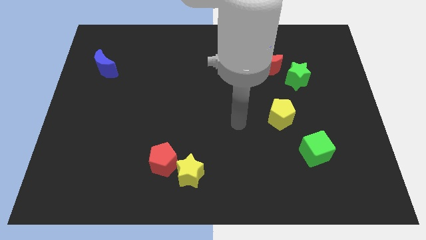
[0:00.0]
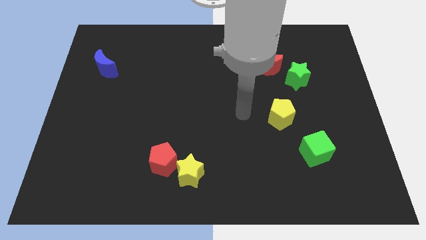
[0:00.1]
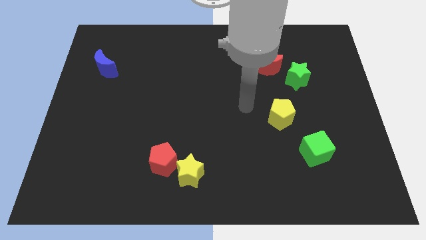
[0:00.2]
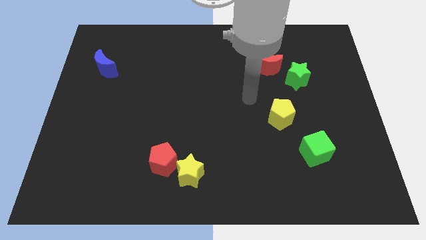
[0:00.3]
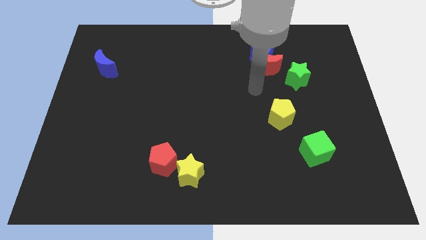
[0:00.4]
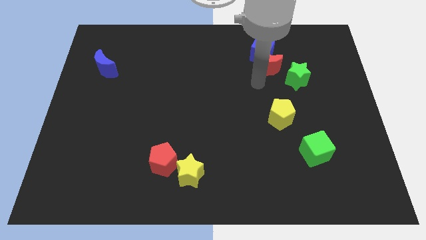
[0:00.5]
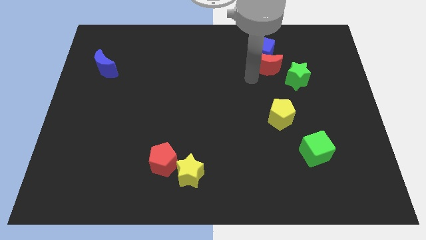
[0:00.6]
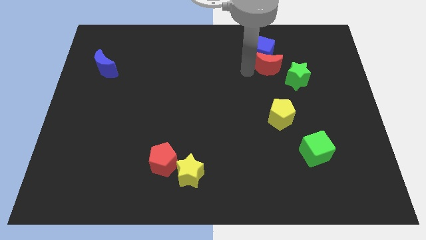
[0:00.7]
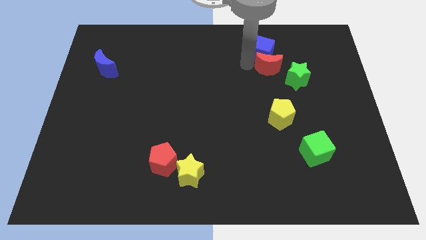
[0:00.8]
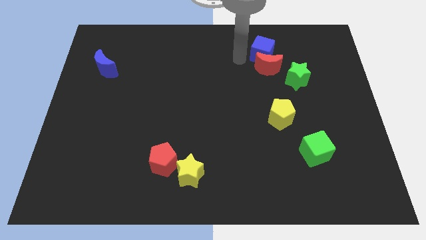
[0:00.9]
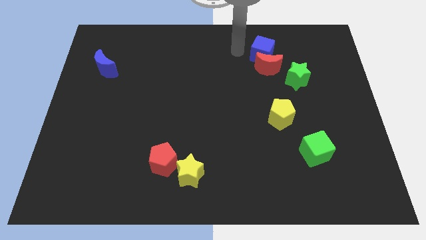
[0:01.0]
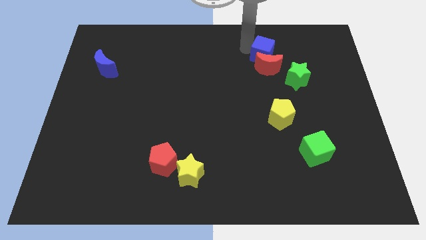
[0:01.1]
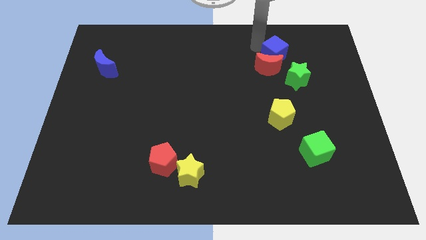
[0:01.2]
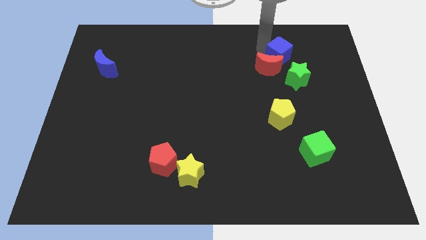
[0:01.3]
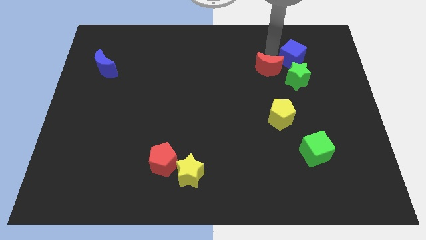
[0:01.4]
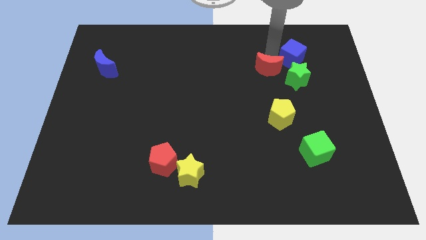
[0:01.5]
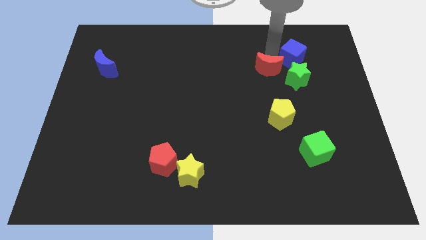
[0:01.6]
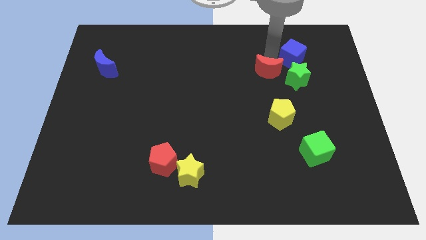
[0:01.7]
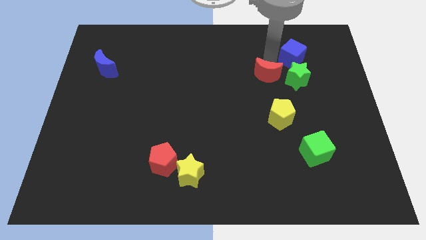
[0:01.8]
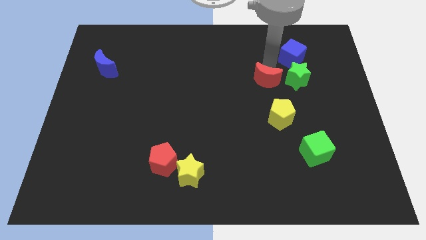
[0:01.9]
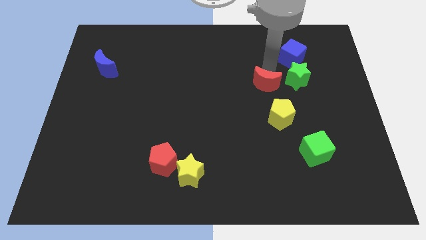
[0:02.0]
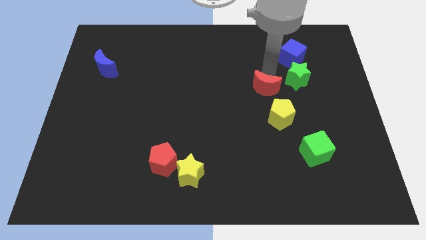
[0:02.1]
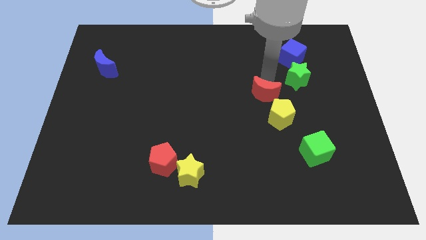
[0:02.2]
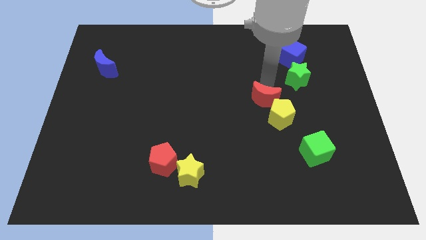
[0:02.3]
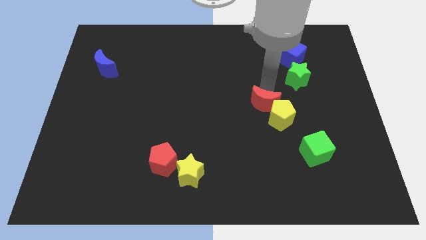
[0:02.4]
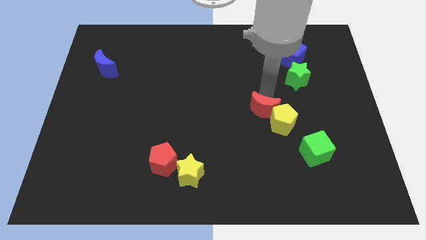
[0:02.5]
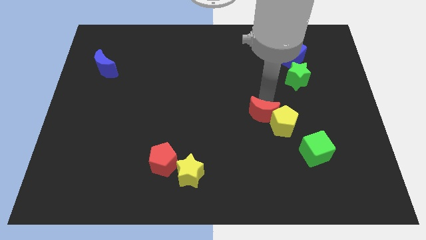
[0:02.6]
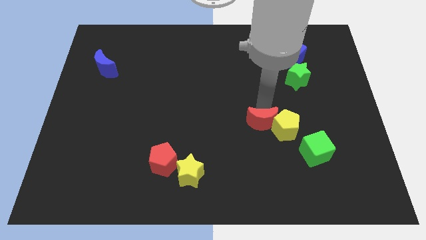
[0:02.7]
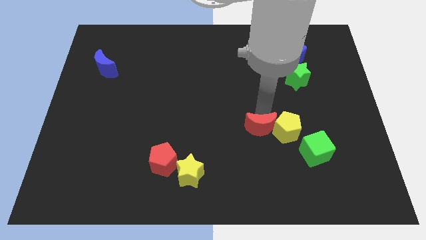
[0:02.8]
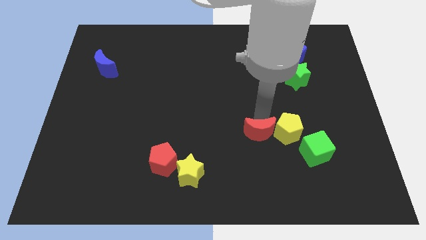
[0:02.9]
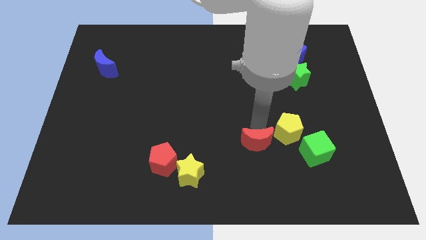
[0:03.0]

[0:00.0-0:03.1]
push the red moon downwards

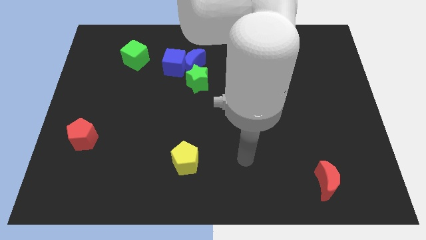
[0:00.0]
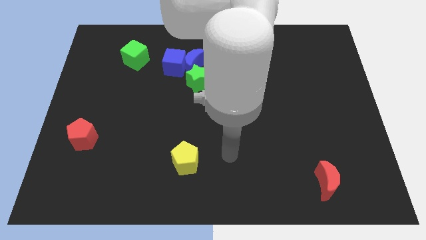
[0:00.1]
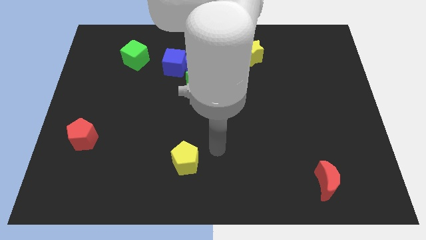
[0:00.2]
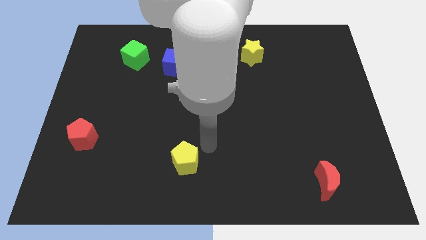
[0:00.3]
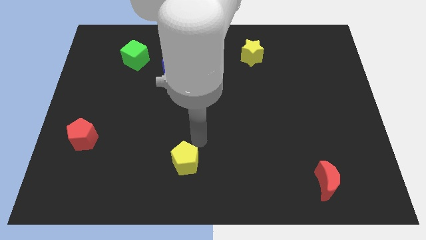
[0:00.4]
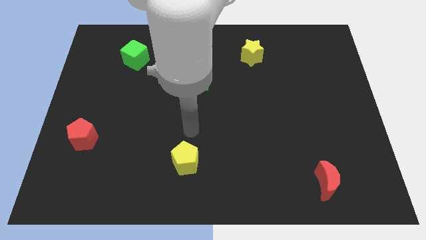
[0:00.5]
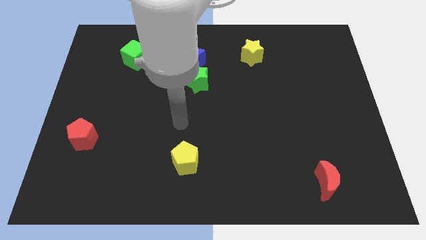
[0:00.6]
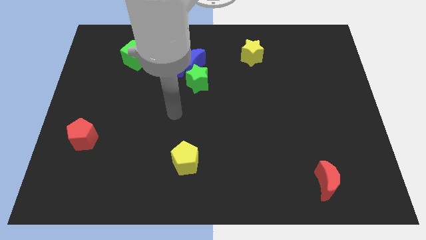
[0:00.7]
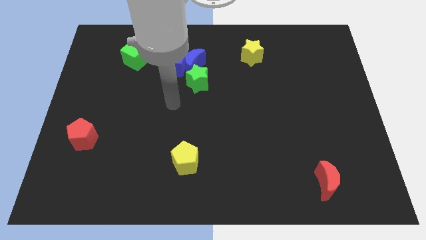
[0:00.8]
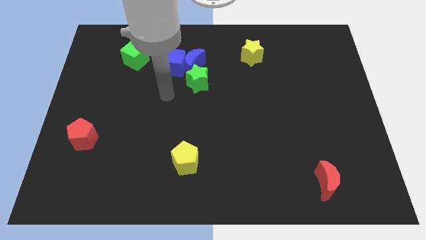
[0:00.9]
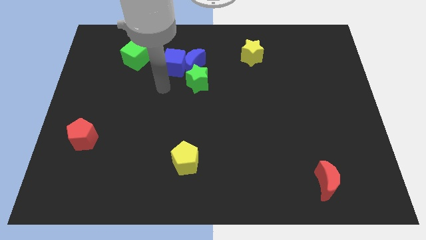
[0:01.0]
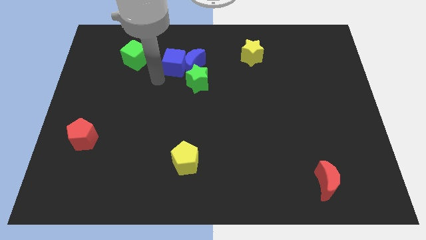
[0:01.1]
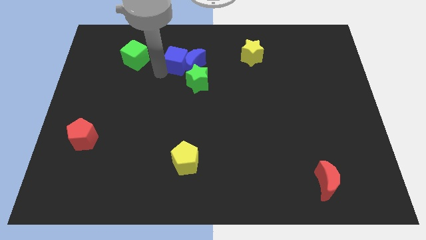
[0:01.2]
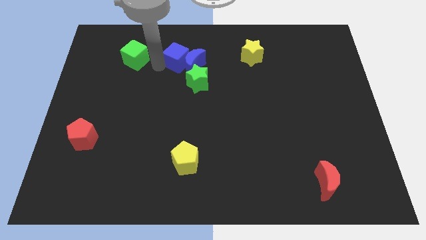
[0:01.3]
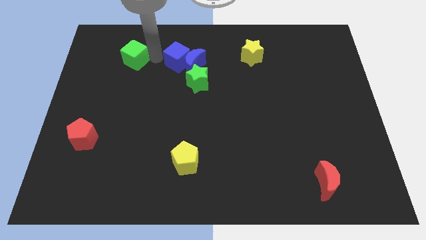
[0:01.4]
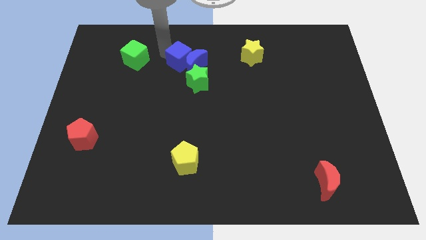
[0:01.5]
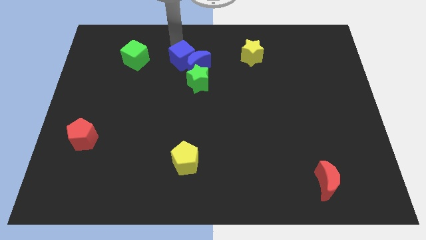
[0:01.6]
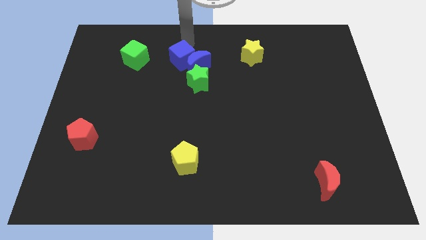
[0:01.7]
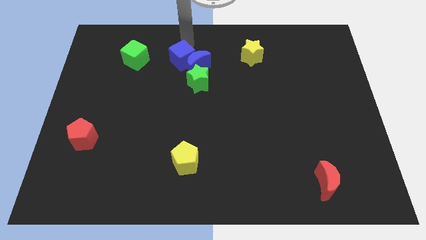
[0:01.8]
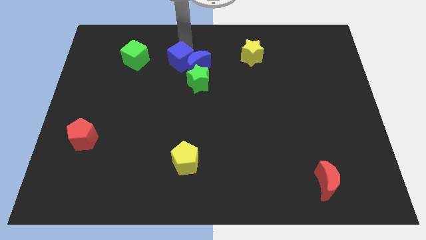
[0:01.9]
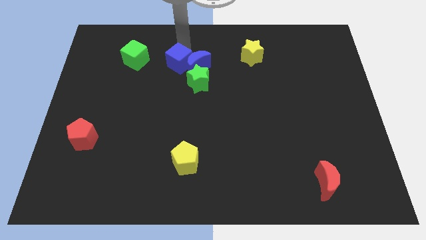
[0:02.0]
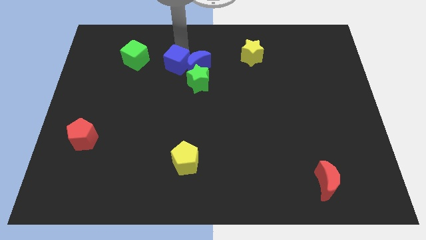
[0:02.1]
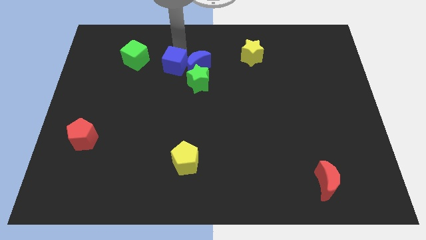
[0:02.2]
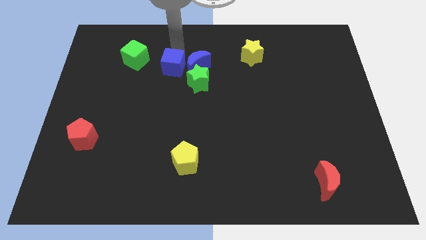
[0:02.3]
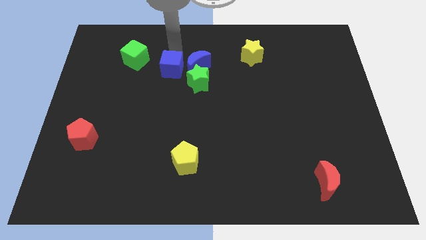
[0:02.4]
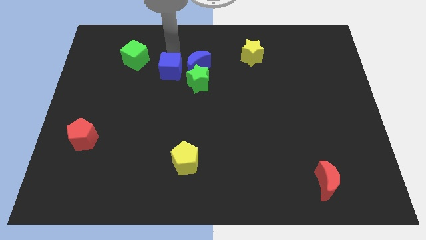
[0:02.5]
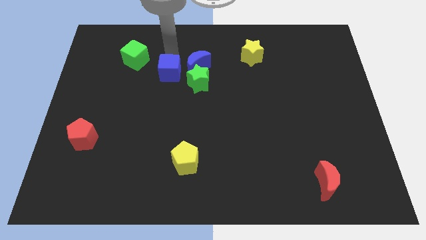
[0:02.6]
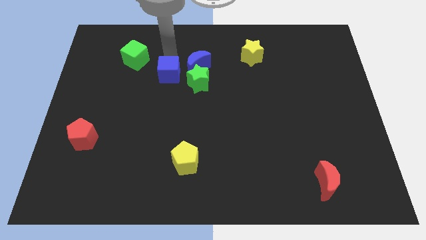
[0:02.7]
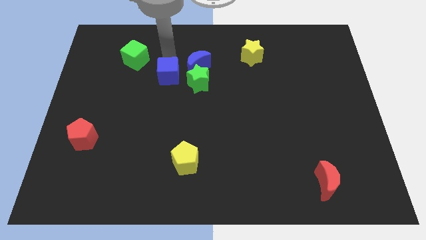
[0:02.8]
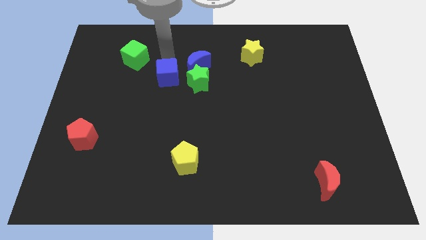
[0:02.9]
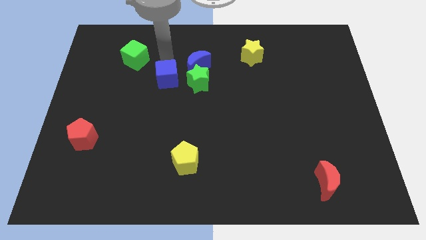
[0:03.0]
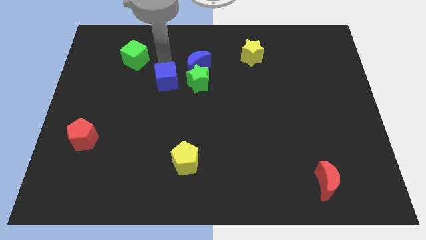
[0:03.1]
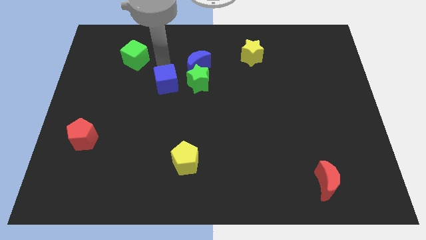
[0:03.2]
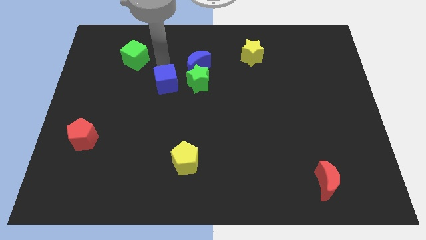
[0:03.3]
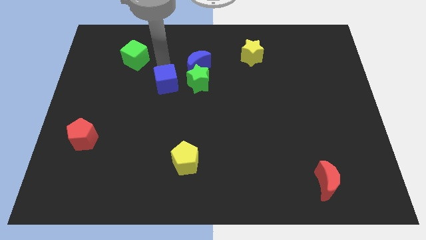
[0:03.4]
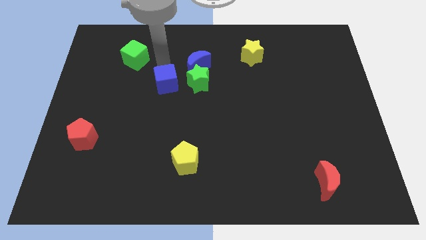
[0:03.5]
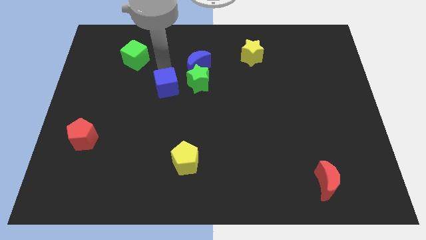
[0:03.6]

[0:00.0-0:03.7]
slide the blue cube down a bit

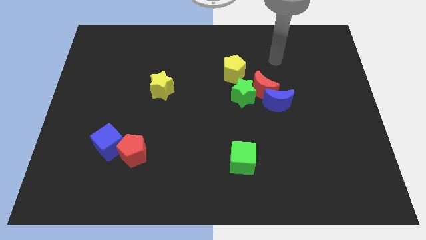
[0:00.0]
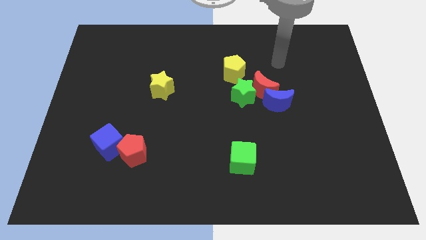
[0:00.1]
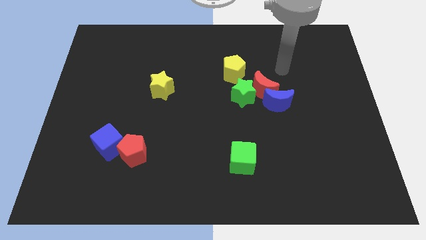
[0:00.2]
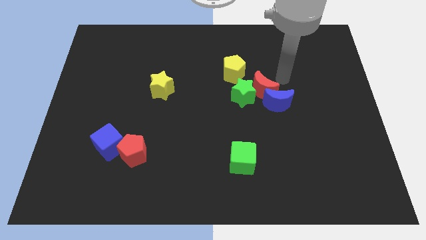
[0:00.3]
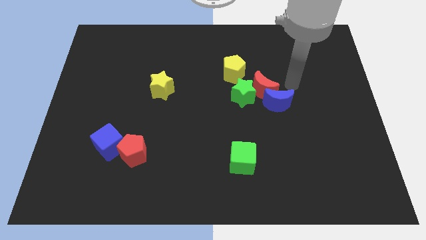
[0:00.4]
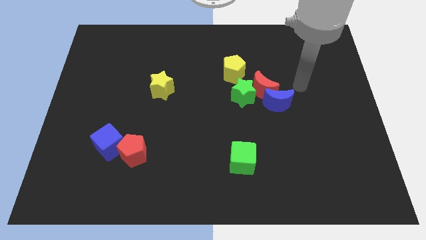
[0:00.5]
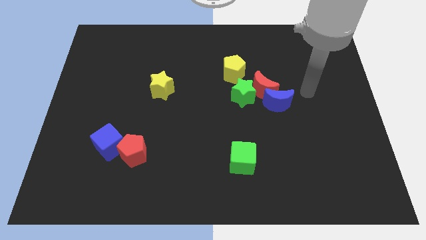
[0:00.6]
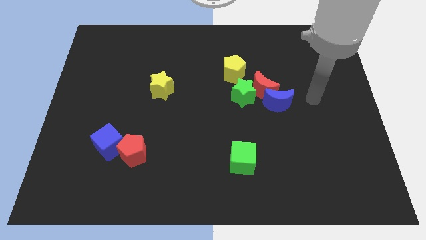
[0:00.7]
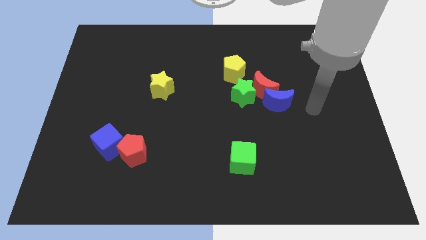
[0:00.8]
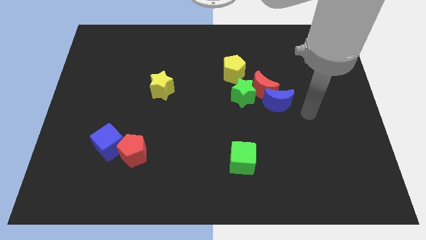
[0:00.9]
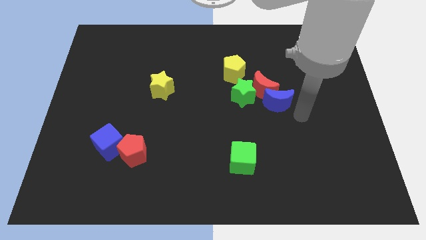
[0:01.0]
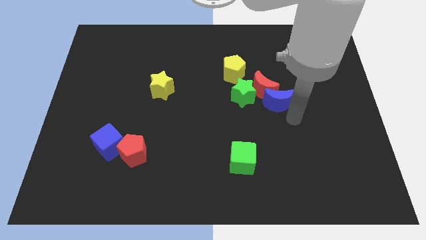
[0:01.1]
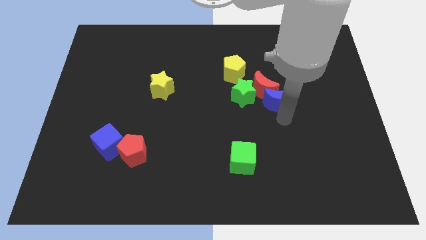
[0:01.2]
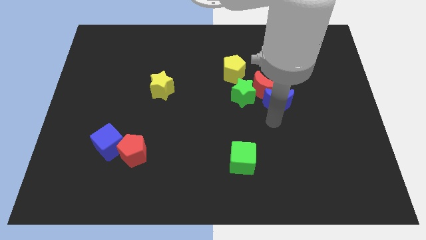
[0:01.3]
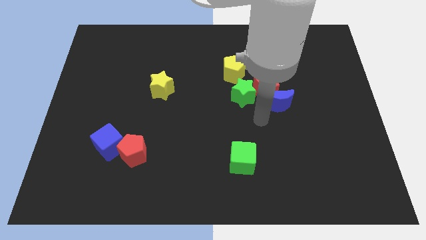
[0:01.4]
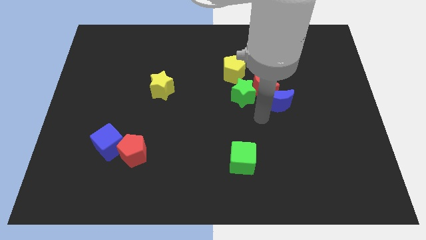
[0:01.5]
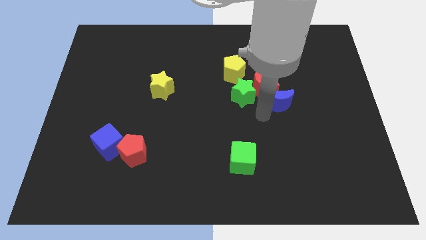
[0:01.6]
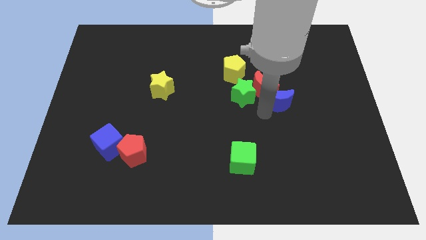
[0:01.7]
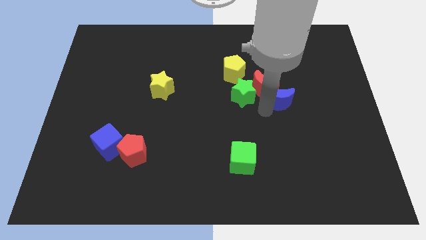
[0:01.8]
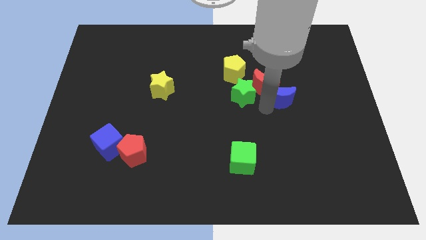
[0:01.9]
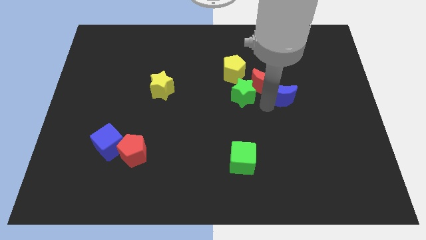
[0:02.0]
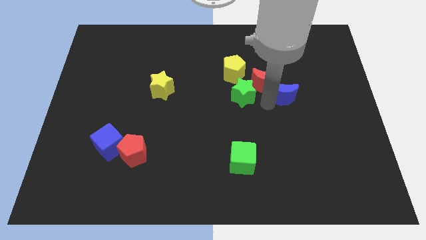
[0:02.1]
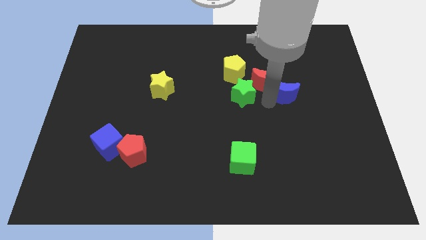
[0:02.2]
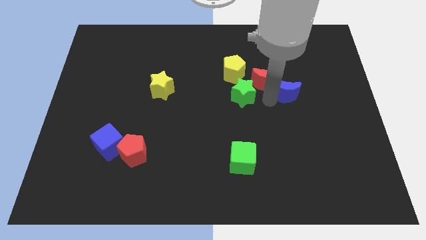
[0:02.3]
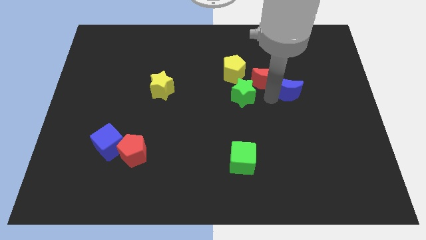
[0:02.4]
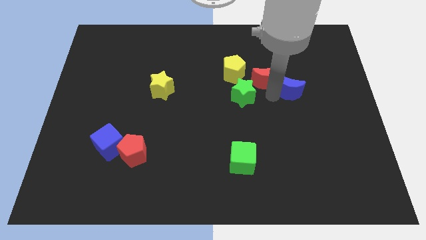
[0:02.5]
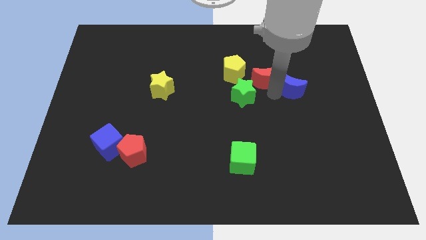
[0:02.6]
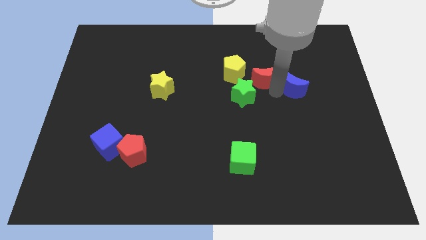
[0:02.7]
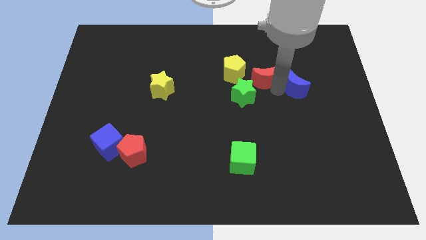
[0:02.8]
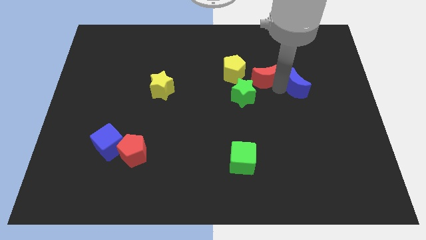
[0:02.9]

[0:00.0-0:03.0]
slide the blue moon upwards and right a little
